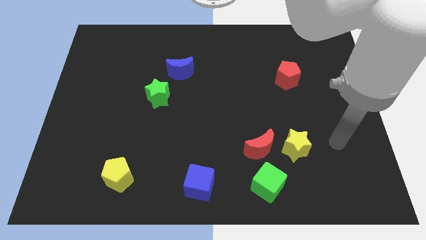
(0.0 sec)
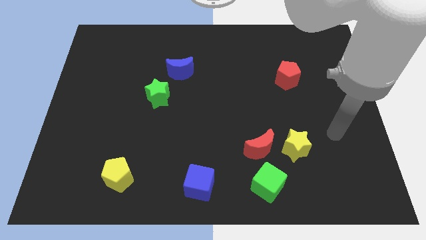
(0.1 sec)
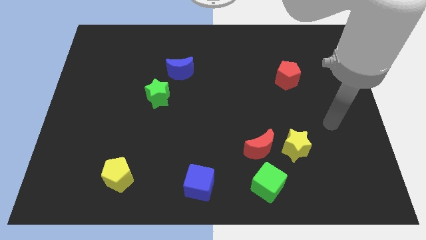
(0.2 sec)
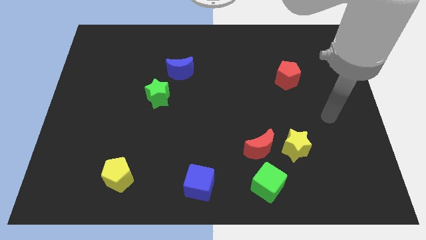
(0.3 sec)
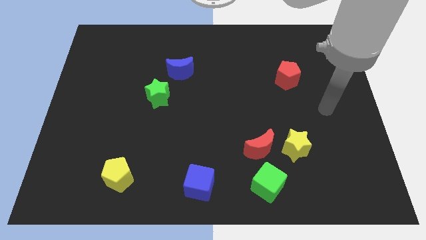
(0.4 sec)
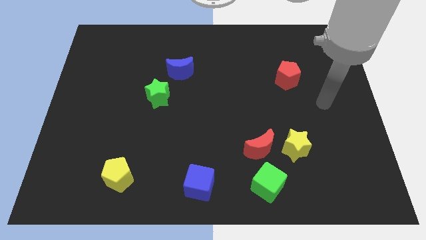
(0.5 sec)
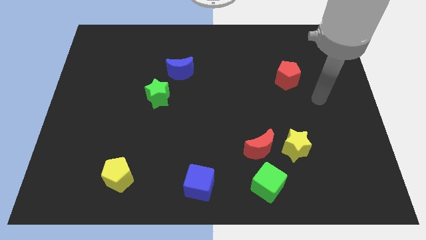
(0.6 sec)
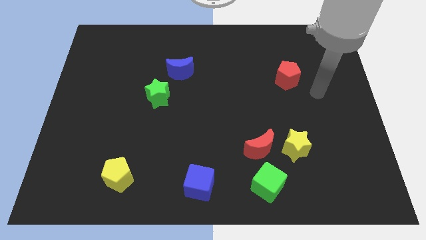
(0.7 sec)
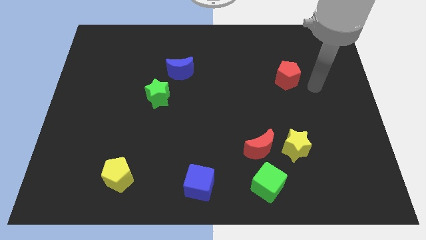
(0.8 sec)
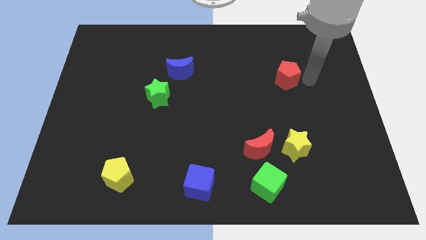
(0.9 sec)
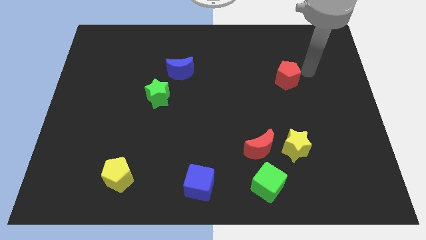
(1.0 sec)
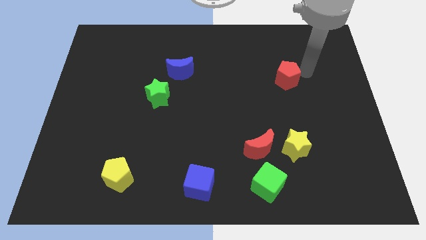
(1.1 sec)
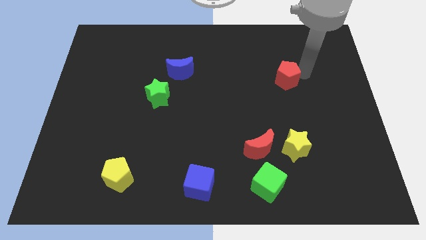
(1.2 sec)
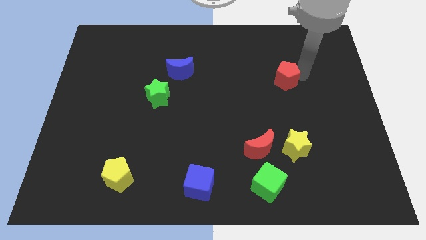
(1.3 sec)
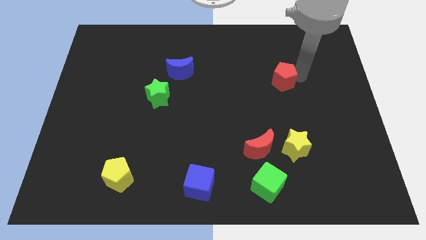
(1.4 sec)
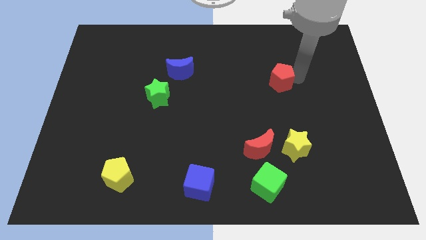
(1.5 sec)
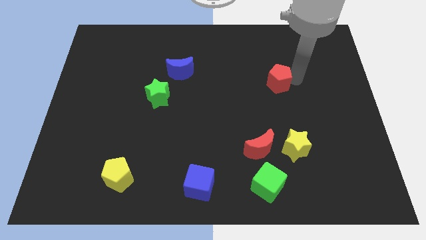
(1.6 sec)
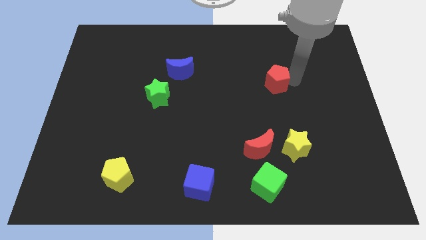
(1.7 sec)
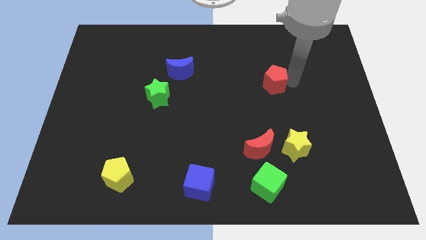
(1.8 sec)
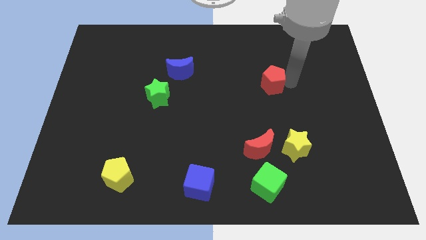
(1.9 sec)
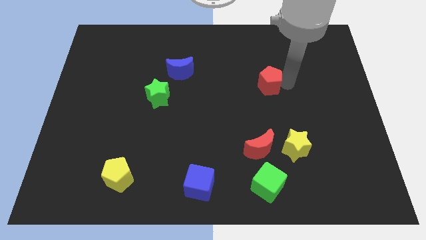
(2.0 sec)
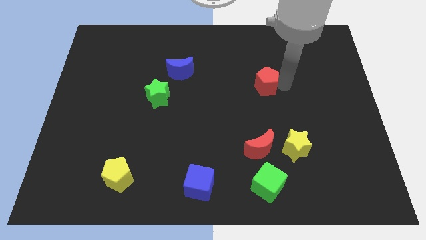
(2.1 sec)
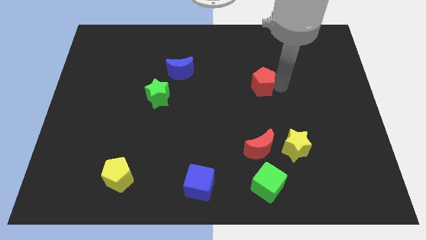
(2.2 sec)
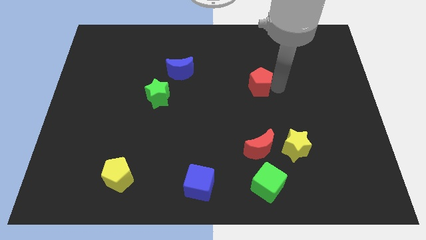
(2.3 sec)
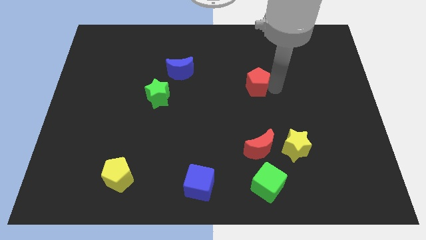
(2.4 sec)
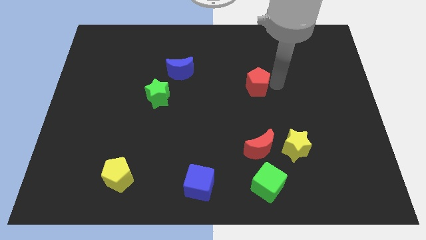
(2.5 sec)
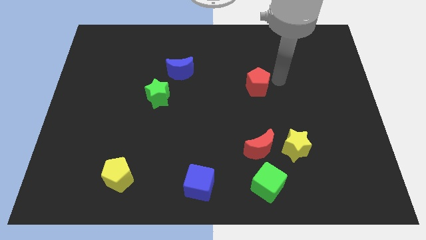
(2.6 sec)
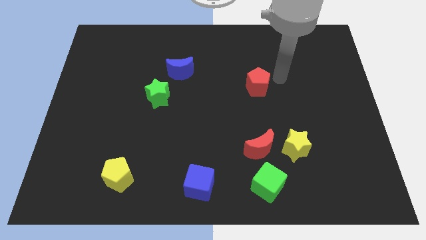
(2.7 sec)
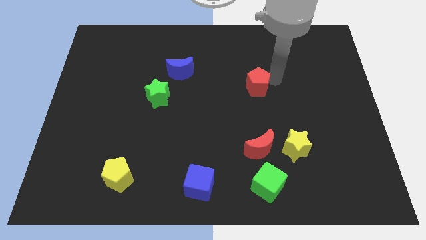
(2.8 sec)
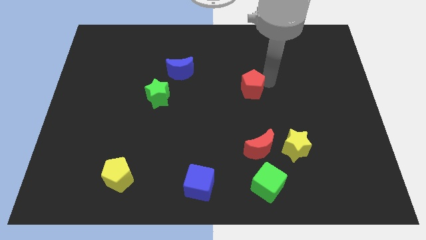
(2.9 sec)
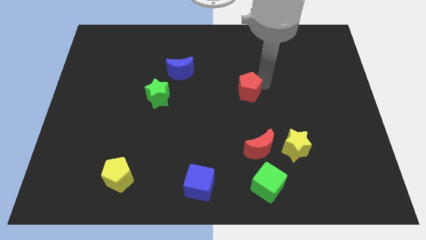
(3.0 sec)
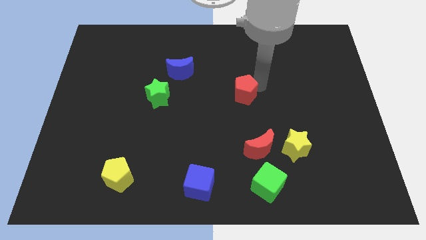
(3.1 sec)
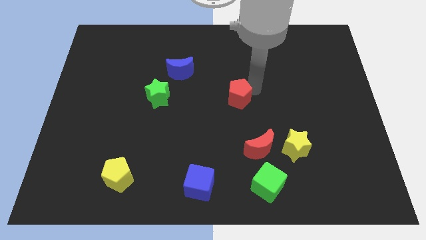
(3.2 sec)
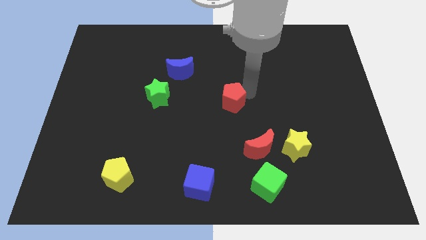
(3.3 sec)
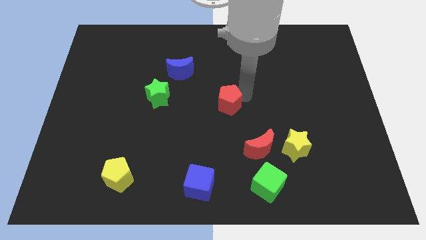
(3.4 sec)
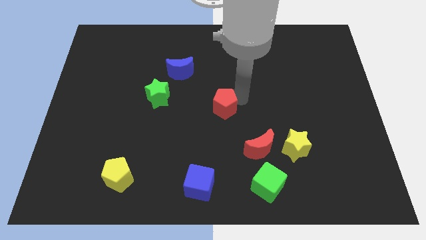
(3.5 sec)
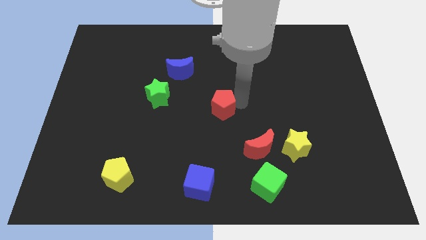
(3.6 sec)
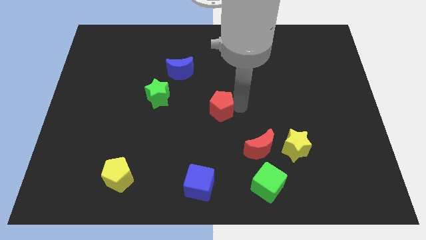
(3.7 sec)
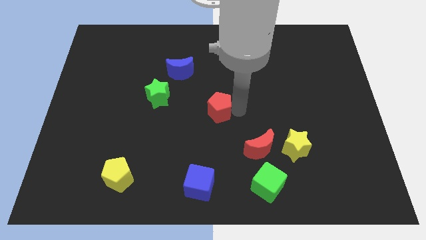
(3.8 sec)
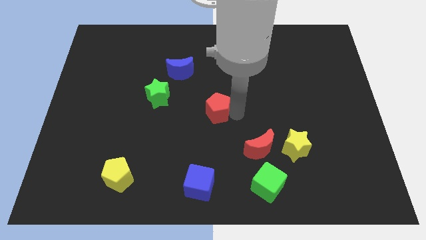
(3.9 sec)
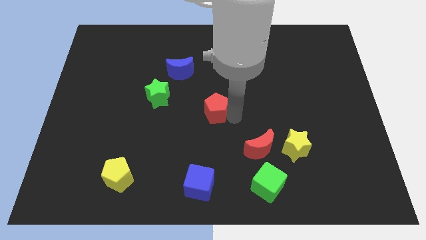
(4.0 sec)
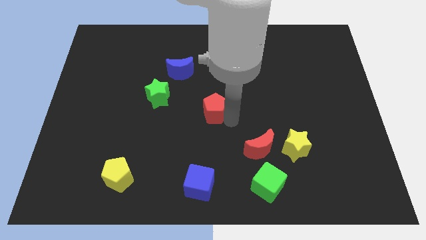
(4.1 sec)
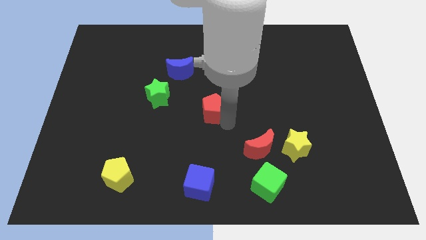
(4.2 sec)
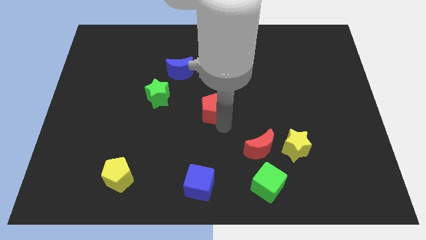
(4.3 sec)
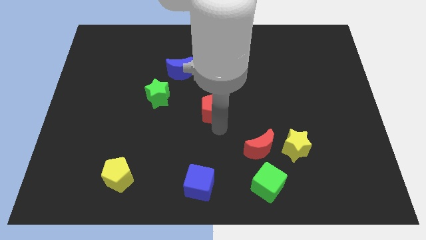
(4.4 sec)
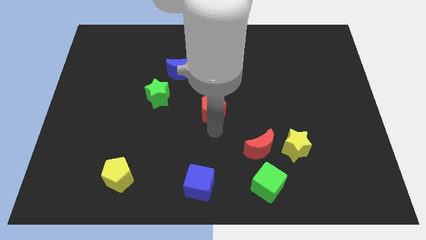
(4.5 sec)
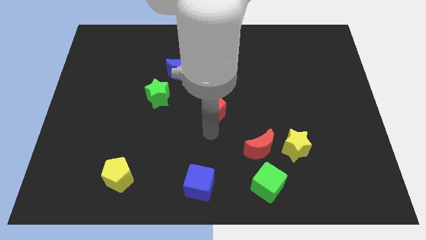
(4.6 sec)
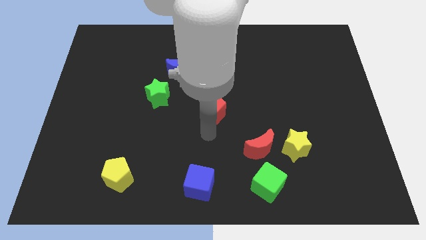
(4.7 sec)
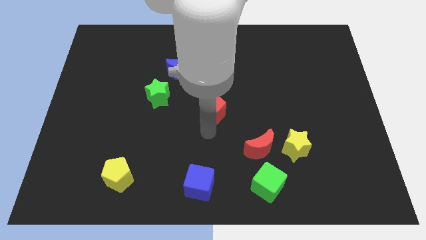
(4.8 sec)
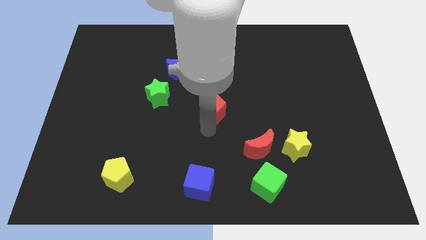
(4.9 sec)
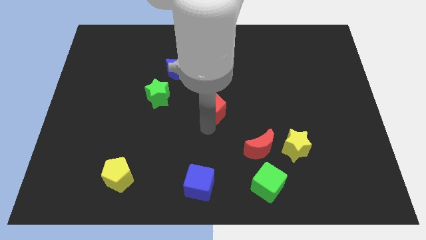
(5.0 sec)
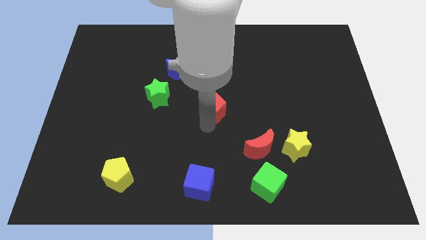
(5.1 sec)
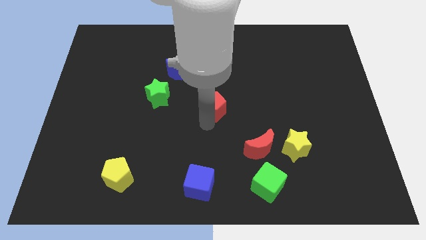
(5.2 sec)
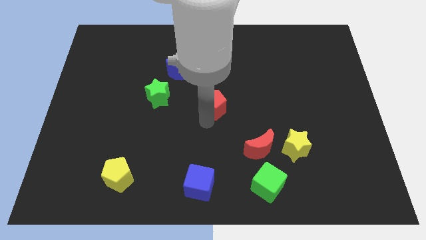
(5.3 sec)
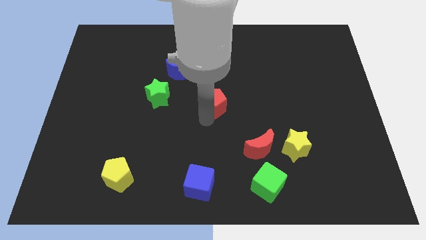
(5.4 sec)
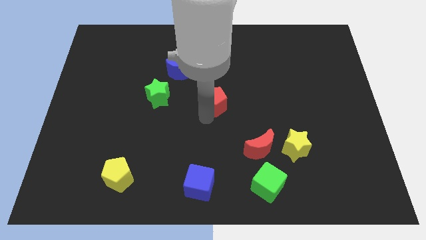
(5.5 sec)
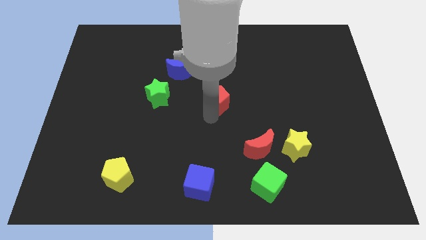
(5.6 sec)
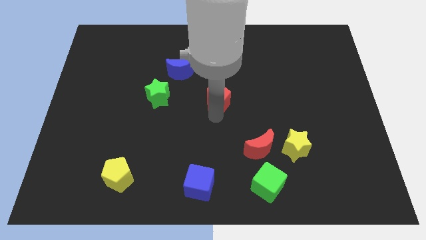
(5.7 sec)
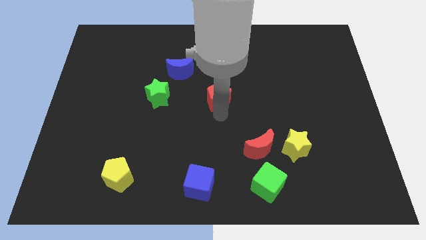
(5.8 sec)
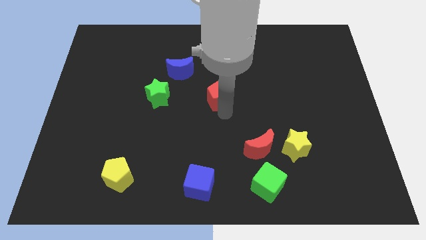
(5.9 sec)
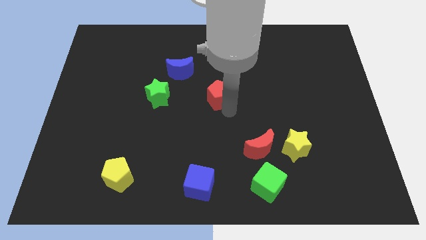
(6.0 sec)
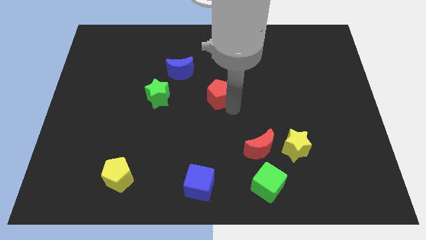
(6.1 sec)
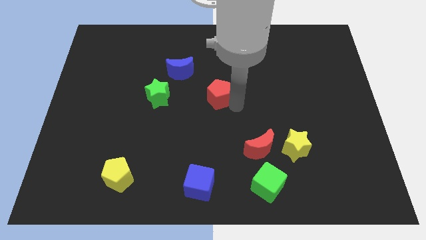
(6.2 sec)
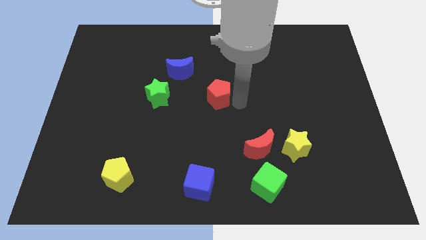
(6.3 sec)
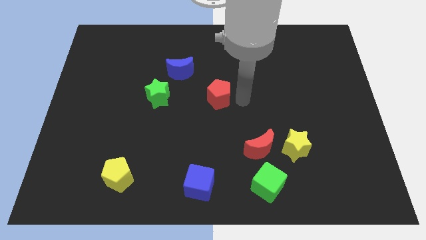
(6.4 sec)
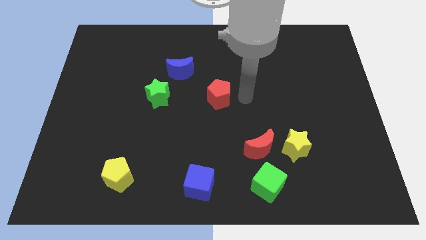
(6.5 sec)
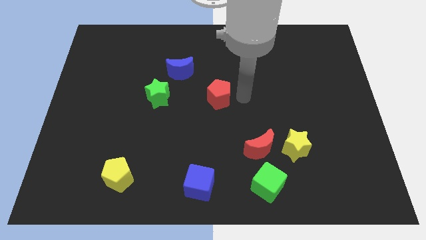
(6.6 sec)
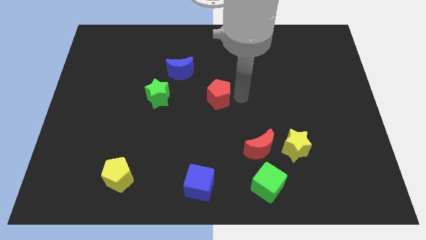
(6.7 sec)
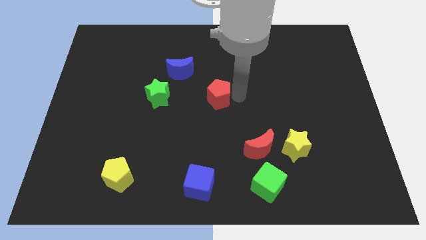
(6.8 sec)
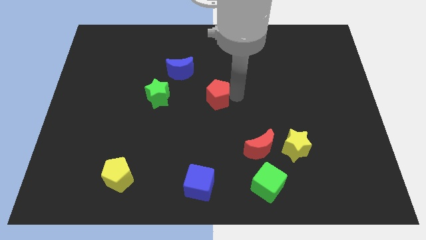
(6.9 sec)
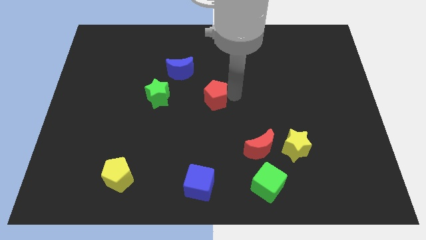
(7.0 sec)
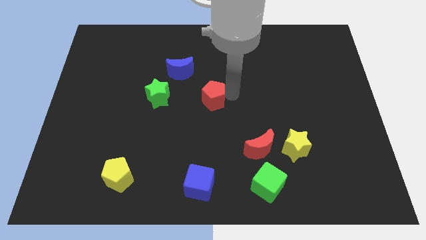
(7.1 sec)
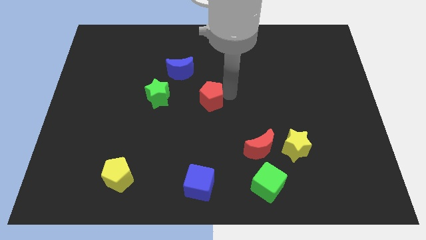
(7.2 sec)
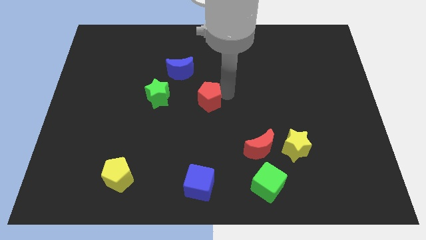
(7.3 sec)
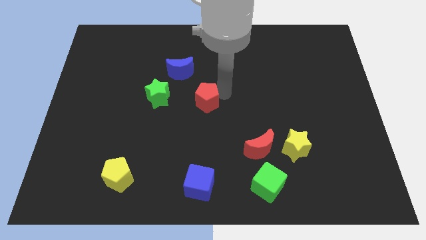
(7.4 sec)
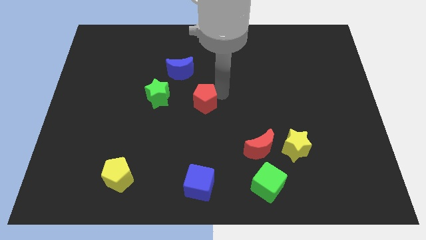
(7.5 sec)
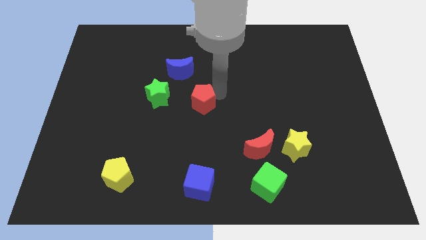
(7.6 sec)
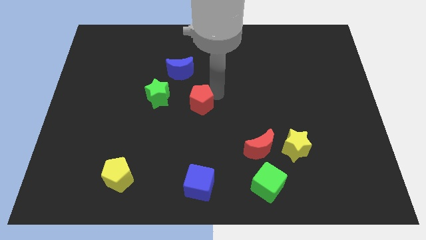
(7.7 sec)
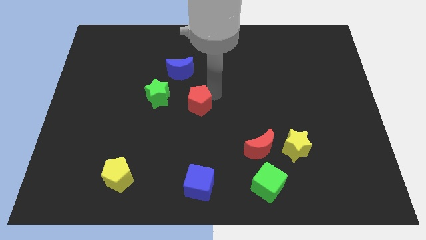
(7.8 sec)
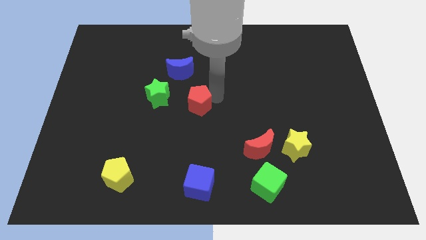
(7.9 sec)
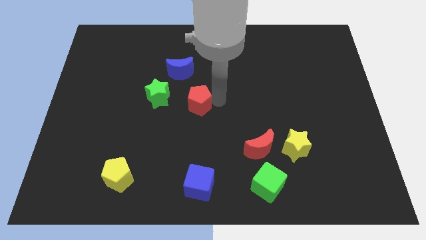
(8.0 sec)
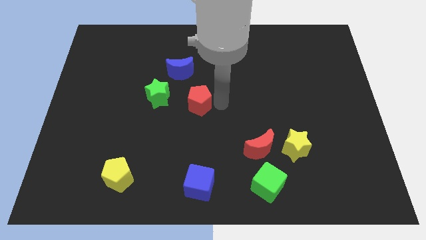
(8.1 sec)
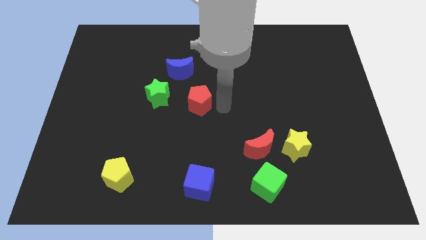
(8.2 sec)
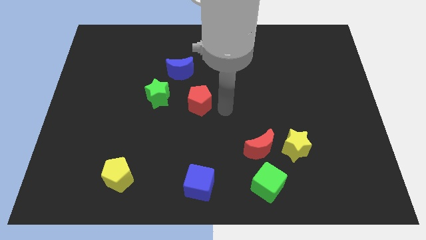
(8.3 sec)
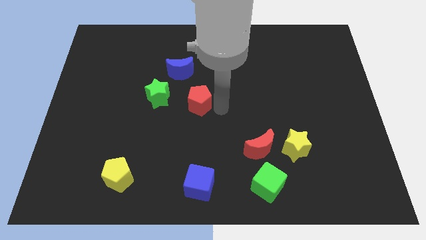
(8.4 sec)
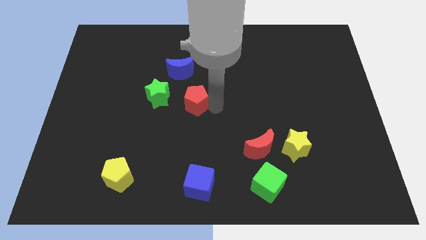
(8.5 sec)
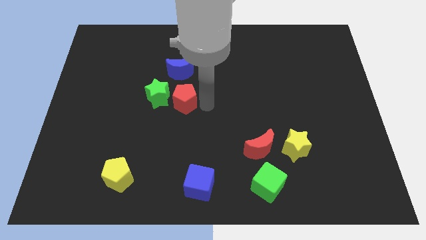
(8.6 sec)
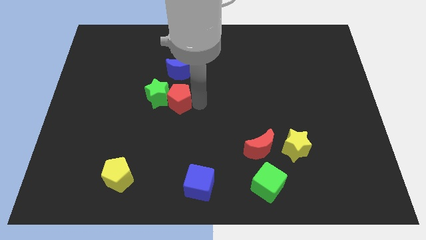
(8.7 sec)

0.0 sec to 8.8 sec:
put the red pentagon to the green star
